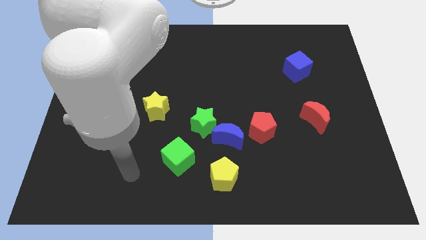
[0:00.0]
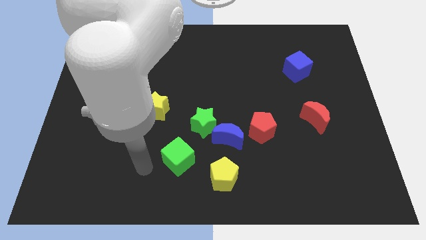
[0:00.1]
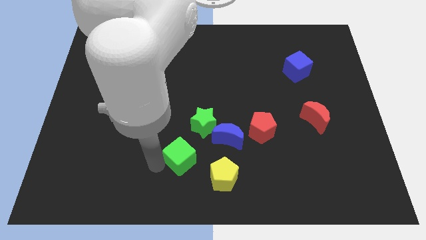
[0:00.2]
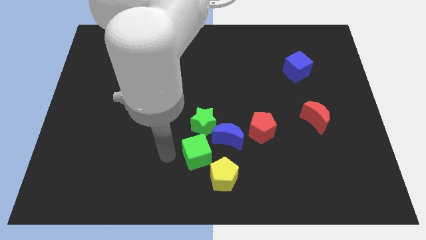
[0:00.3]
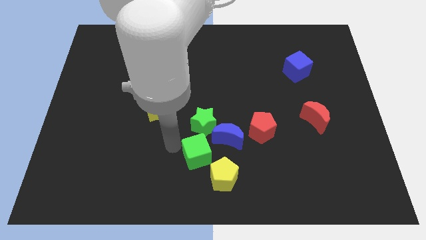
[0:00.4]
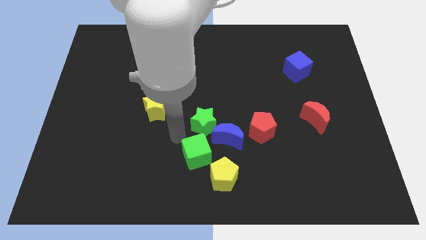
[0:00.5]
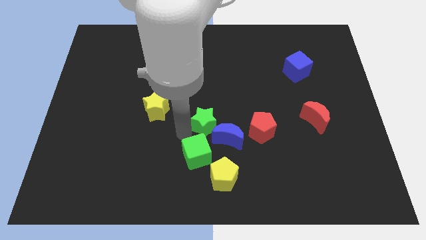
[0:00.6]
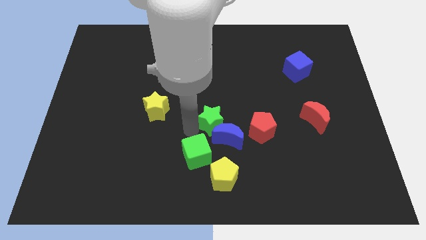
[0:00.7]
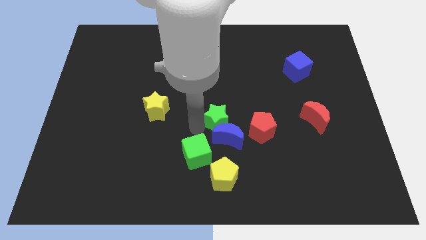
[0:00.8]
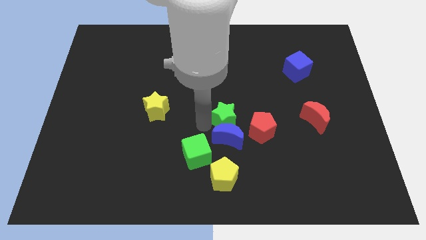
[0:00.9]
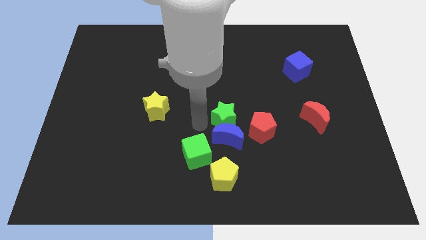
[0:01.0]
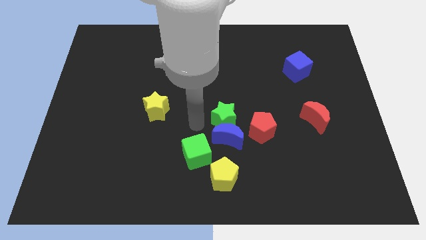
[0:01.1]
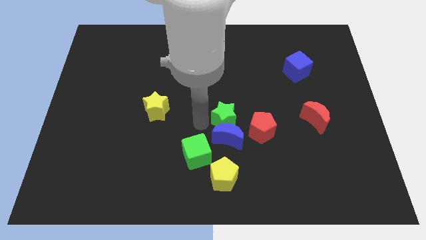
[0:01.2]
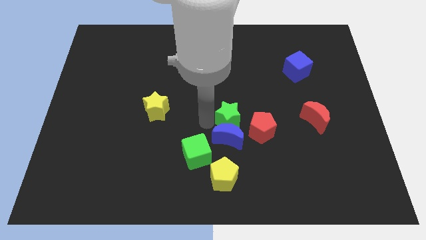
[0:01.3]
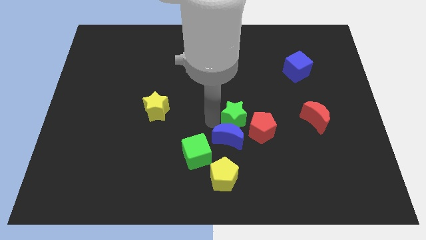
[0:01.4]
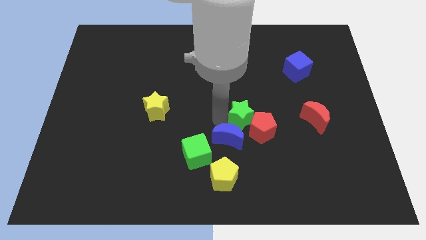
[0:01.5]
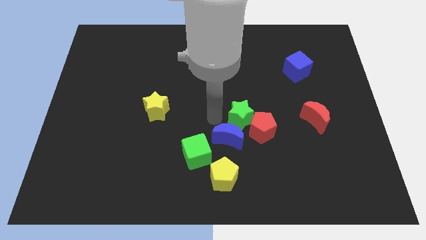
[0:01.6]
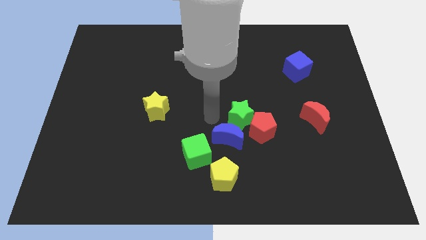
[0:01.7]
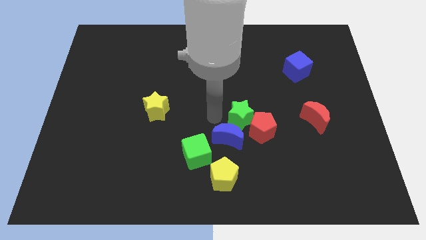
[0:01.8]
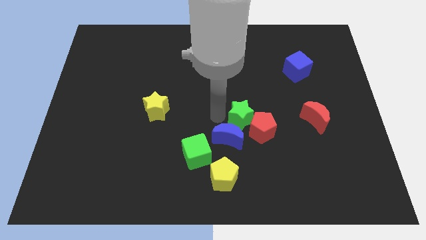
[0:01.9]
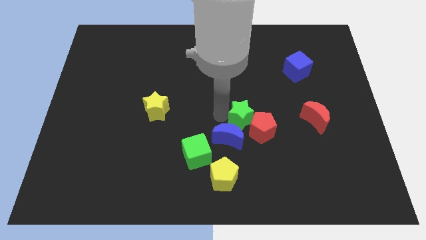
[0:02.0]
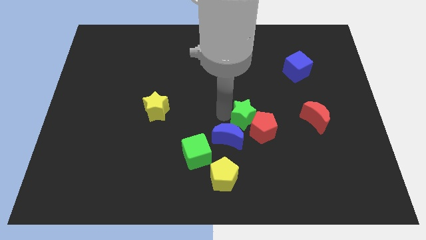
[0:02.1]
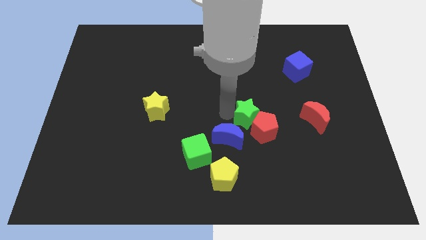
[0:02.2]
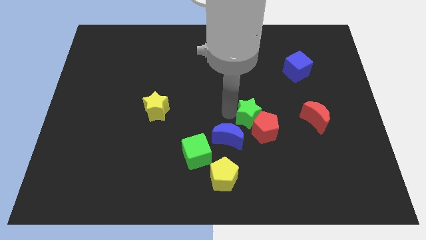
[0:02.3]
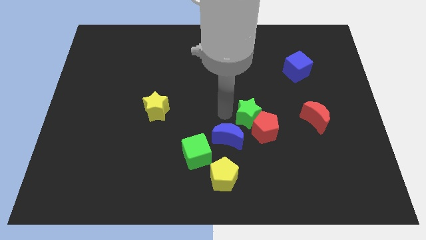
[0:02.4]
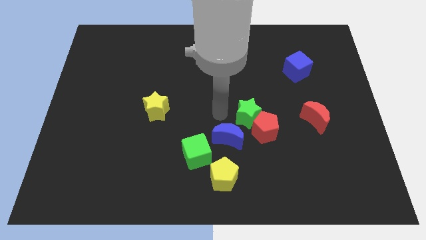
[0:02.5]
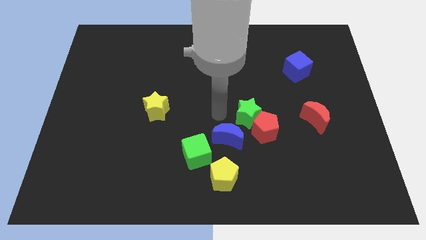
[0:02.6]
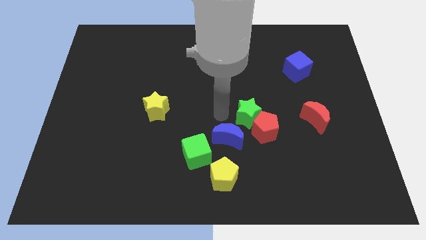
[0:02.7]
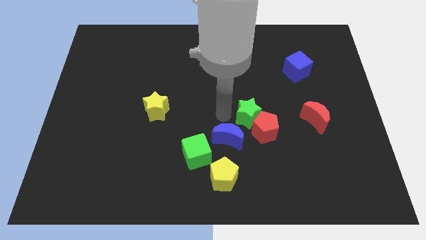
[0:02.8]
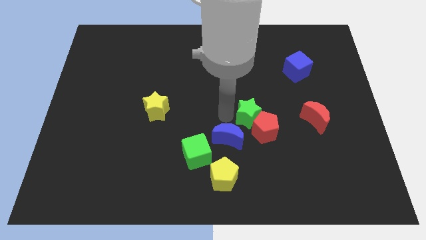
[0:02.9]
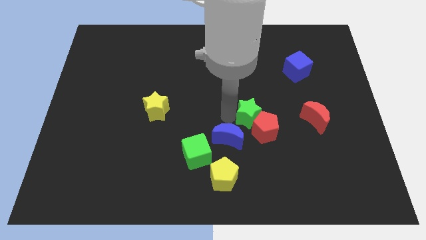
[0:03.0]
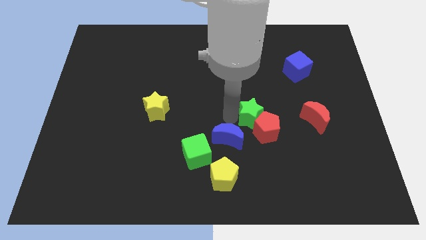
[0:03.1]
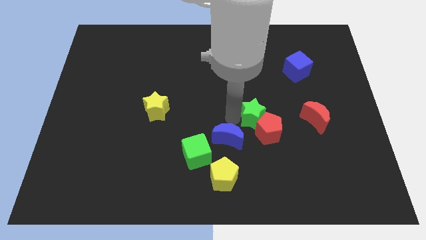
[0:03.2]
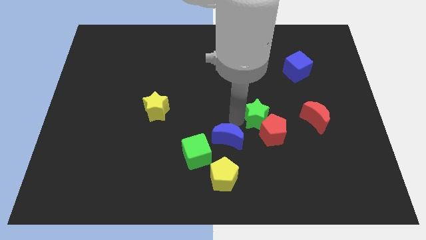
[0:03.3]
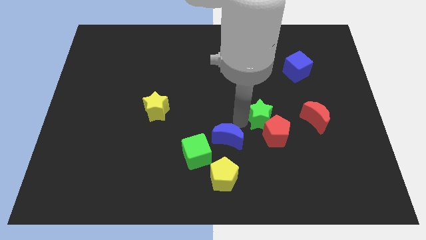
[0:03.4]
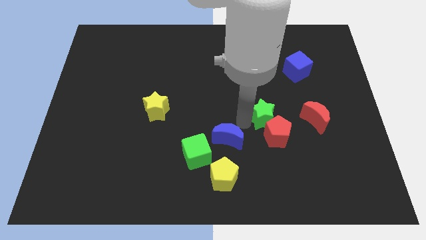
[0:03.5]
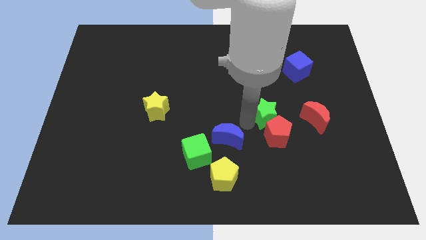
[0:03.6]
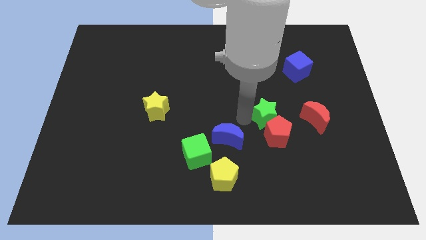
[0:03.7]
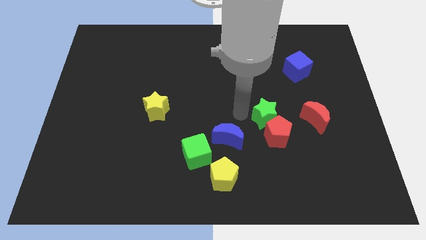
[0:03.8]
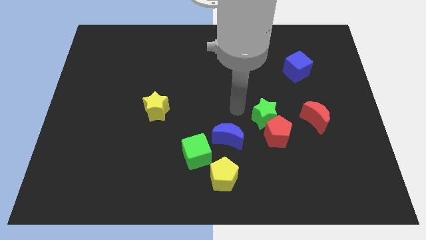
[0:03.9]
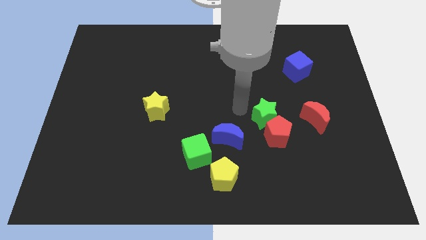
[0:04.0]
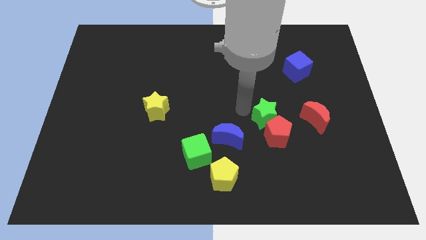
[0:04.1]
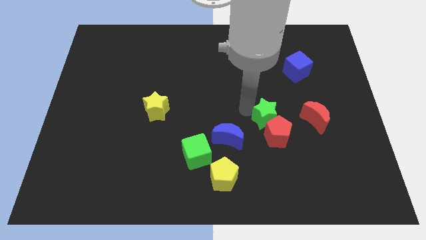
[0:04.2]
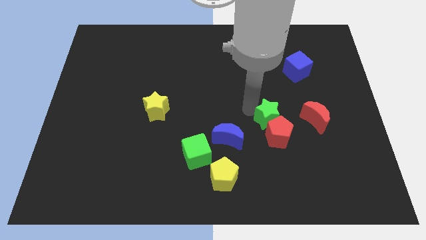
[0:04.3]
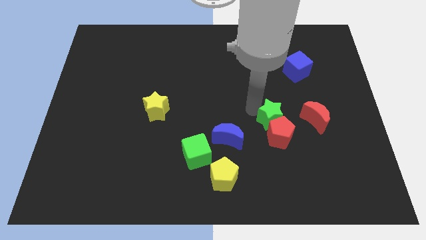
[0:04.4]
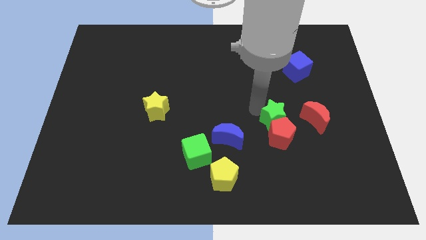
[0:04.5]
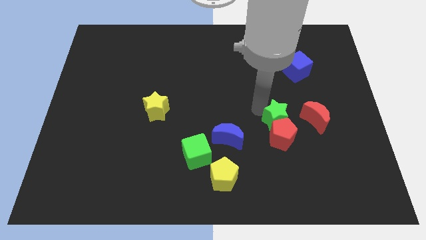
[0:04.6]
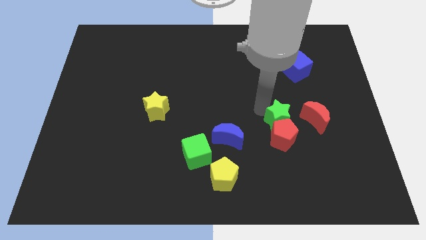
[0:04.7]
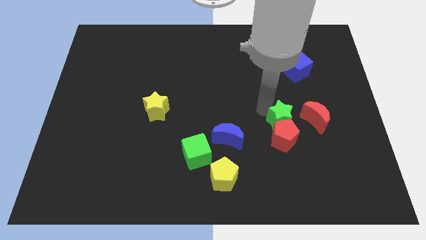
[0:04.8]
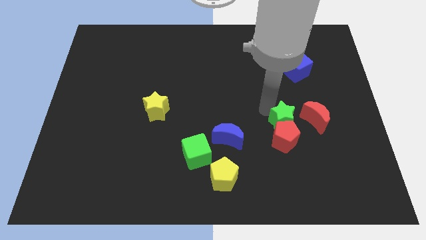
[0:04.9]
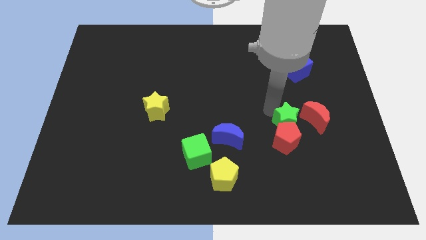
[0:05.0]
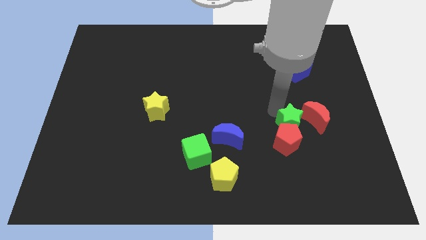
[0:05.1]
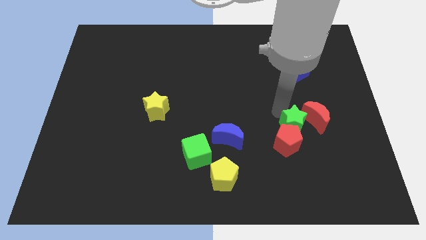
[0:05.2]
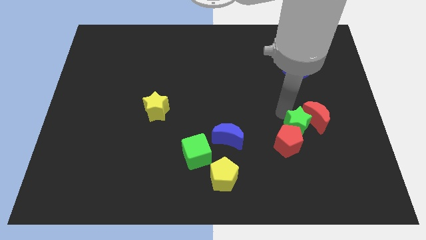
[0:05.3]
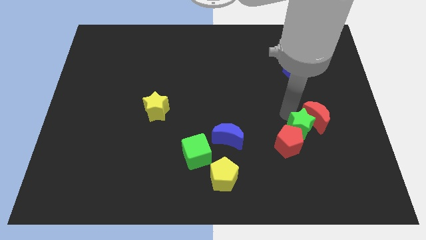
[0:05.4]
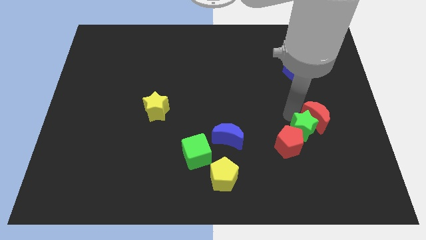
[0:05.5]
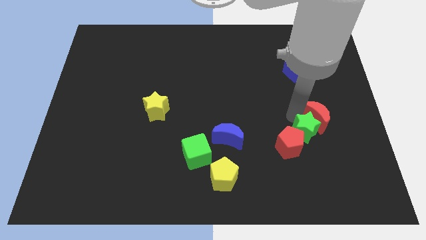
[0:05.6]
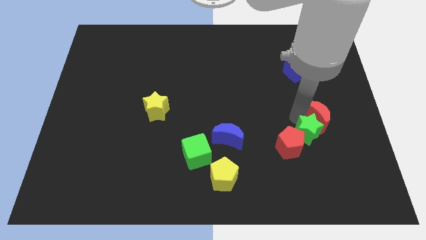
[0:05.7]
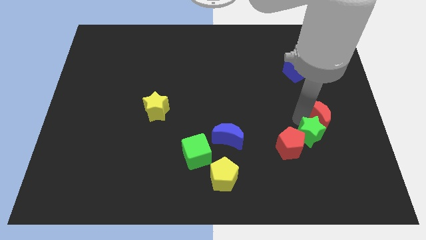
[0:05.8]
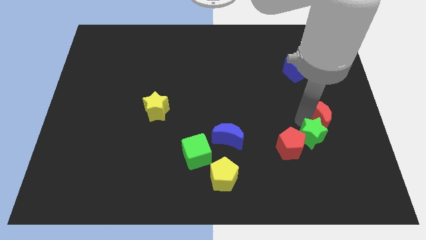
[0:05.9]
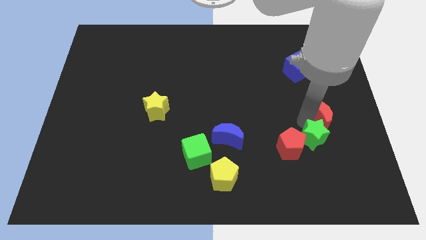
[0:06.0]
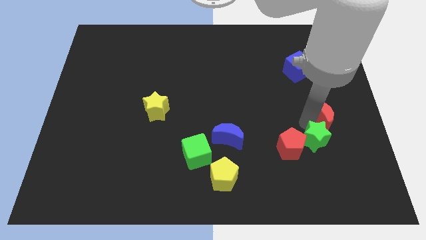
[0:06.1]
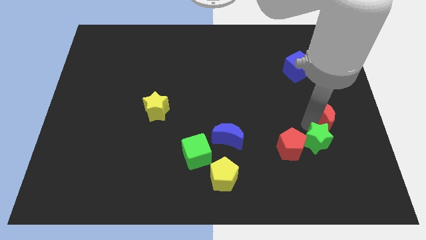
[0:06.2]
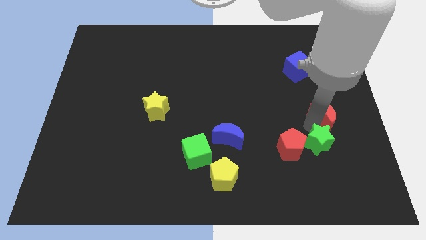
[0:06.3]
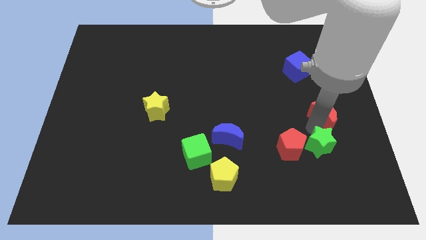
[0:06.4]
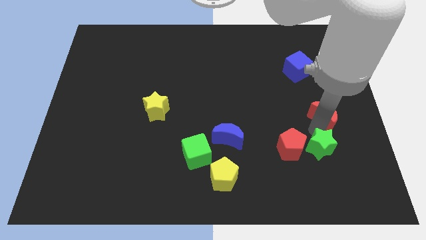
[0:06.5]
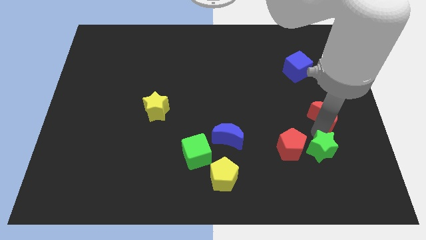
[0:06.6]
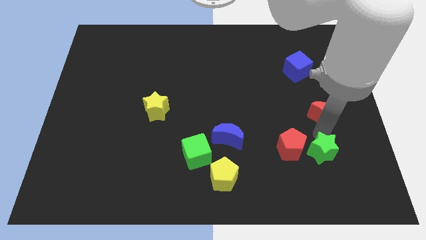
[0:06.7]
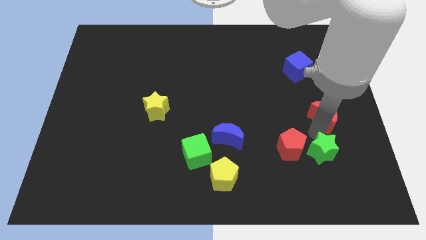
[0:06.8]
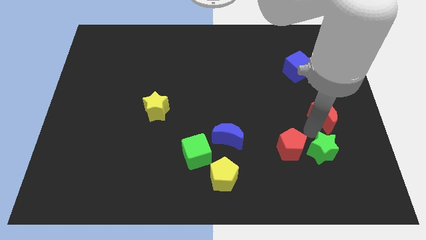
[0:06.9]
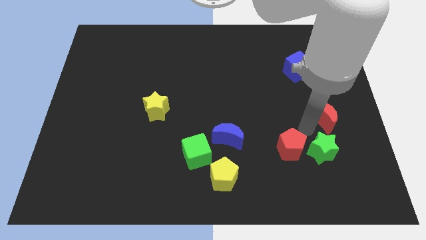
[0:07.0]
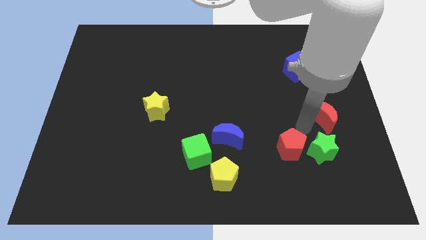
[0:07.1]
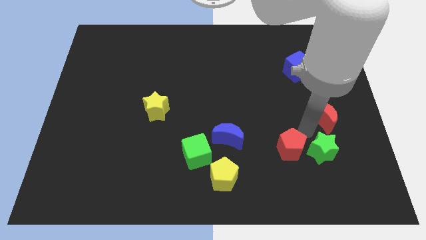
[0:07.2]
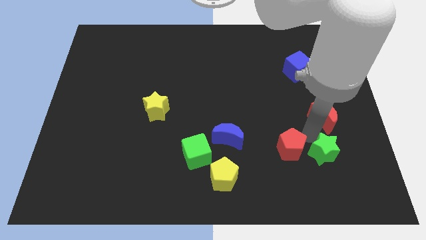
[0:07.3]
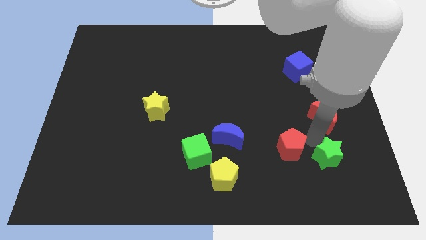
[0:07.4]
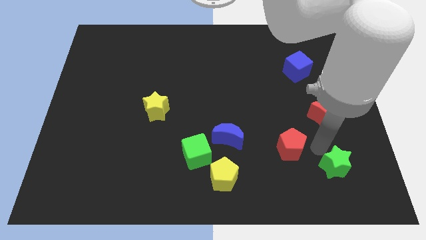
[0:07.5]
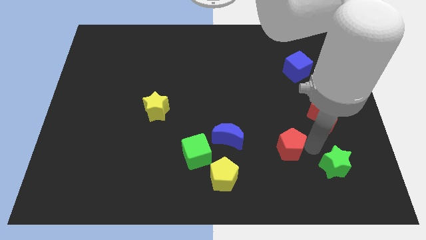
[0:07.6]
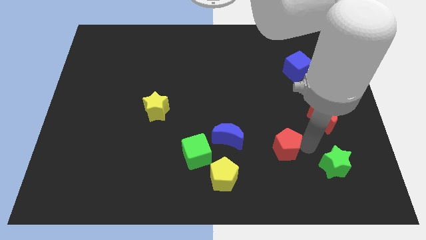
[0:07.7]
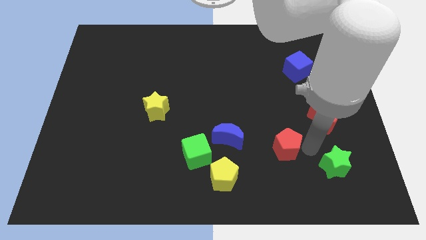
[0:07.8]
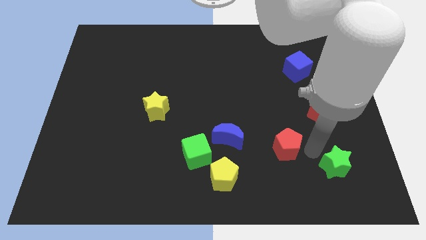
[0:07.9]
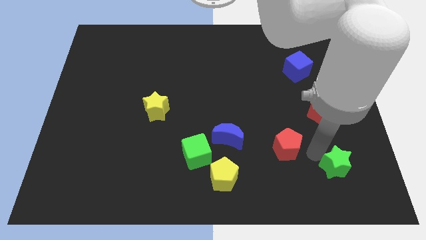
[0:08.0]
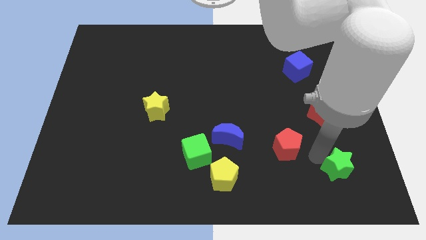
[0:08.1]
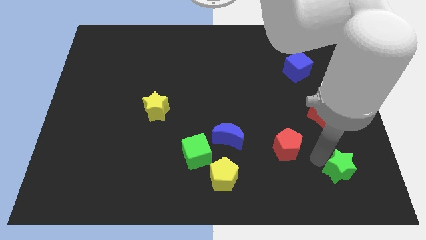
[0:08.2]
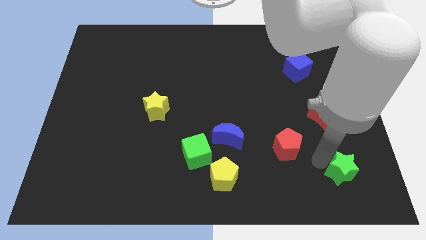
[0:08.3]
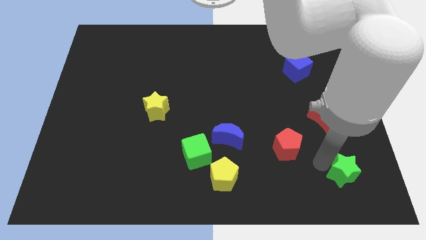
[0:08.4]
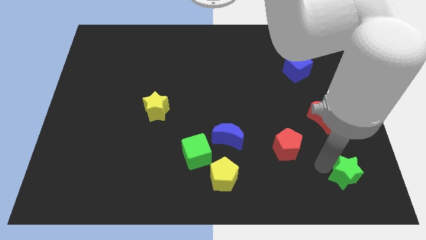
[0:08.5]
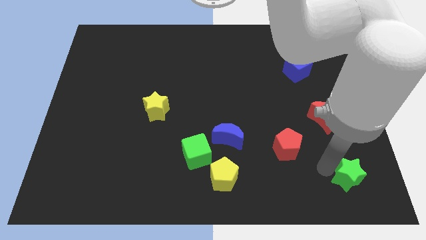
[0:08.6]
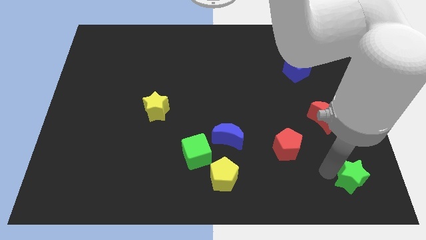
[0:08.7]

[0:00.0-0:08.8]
slide the green star to the lower right corner
